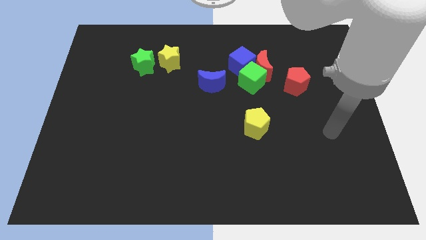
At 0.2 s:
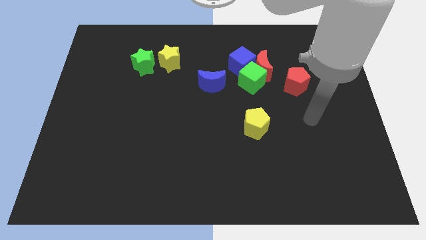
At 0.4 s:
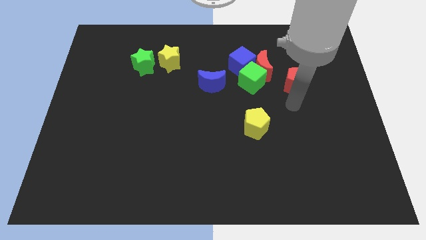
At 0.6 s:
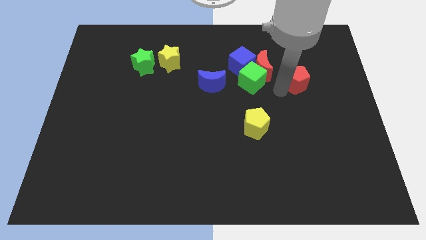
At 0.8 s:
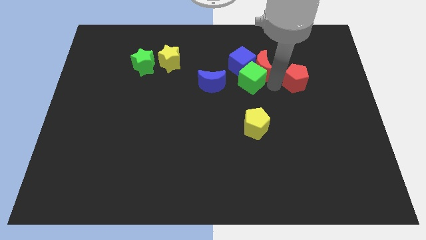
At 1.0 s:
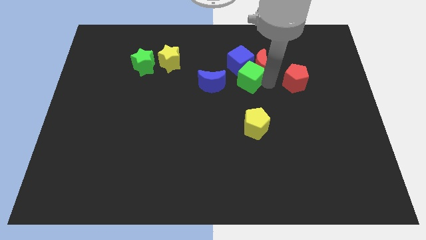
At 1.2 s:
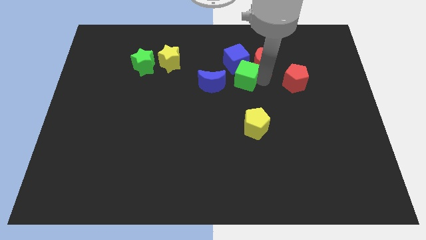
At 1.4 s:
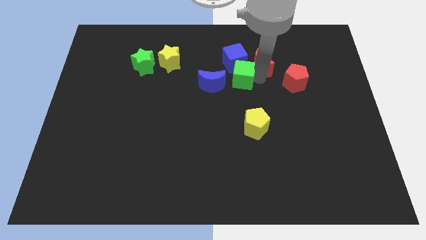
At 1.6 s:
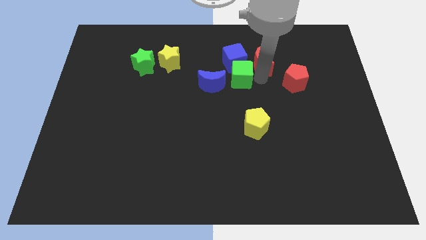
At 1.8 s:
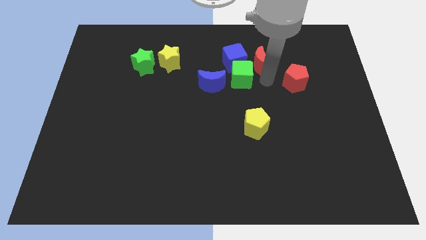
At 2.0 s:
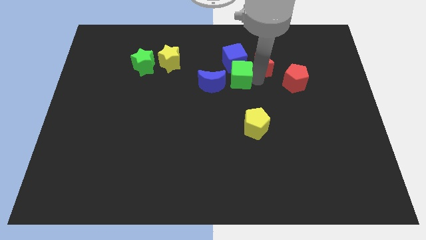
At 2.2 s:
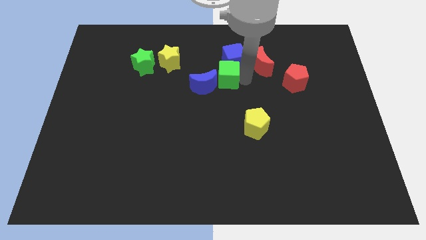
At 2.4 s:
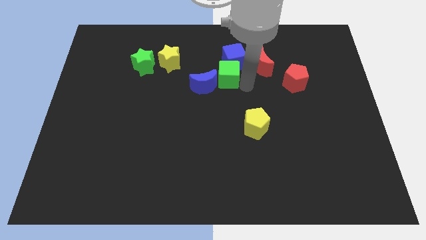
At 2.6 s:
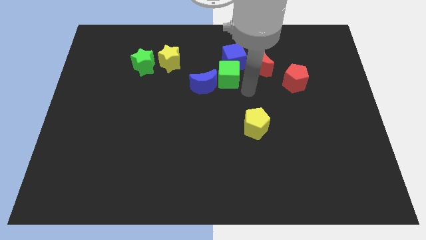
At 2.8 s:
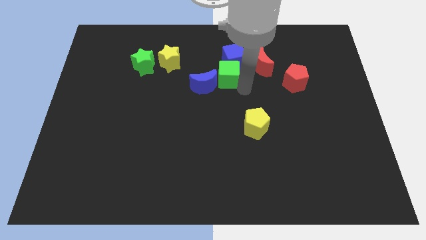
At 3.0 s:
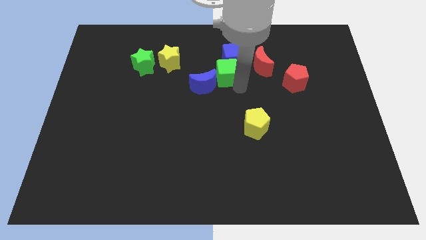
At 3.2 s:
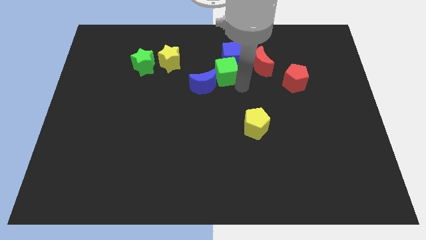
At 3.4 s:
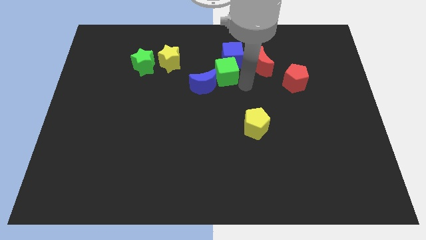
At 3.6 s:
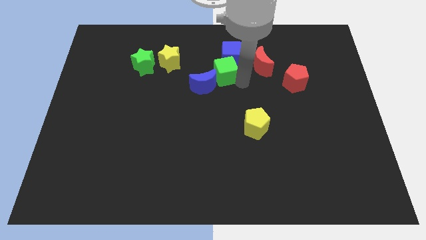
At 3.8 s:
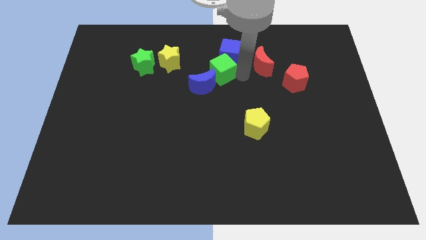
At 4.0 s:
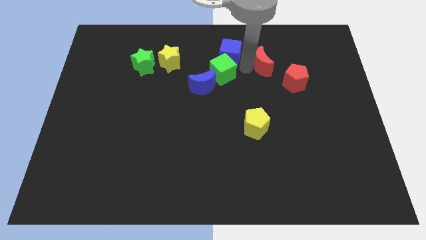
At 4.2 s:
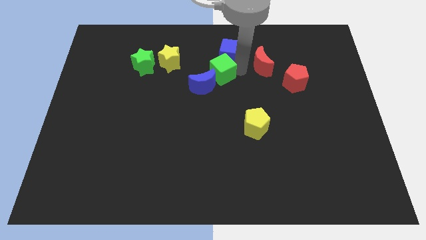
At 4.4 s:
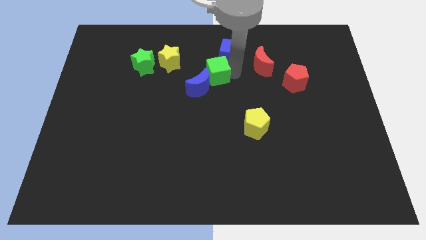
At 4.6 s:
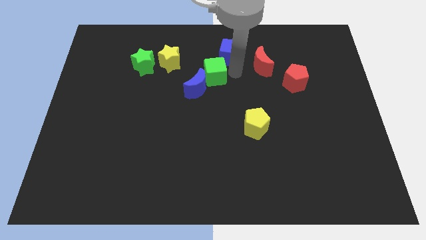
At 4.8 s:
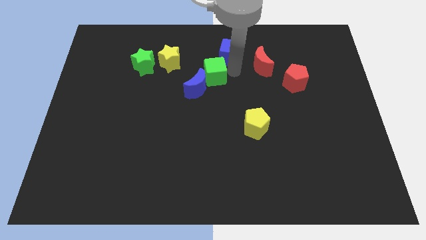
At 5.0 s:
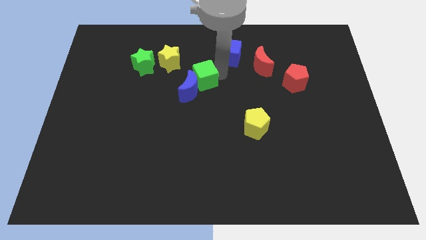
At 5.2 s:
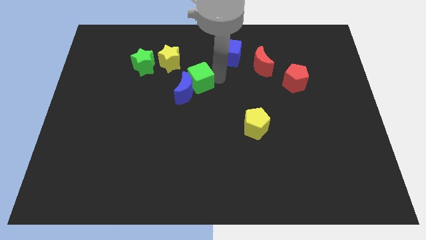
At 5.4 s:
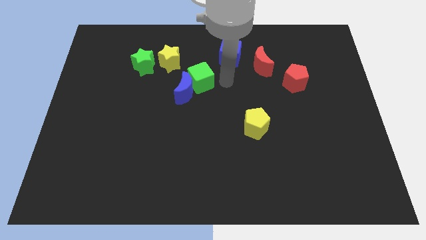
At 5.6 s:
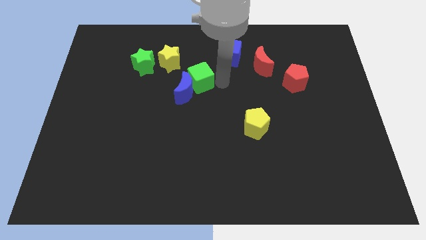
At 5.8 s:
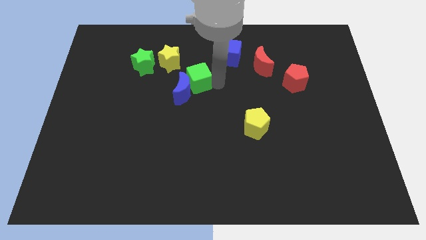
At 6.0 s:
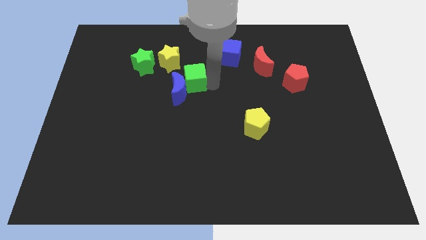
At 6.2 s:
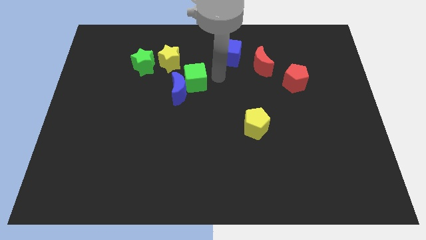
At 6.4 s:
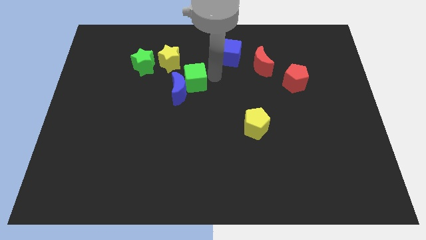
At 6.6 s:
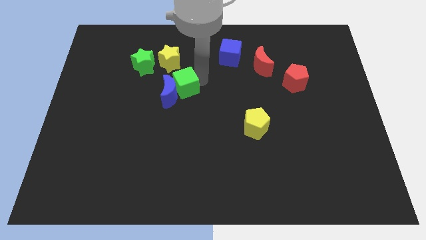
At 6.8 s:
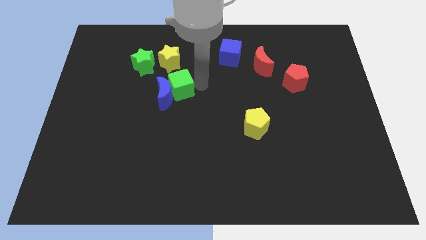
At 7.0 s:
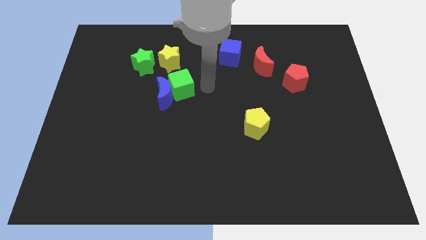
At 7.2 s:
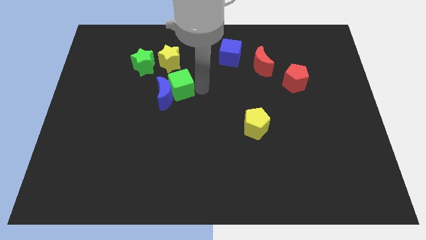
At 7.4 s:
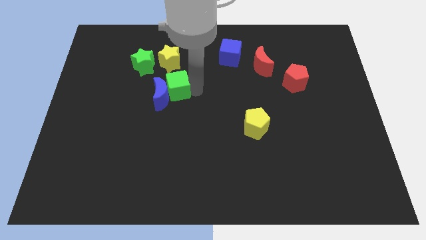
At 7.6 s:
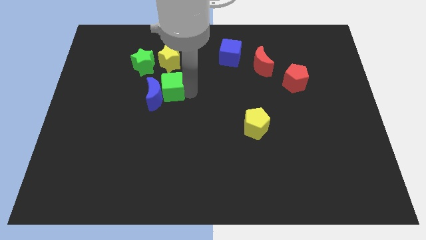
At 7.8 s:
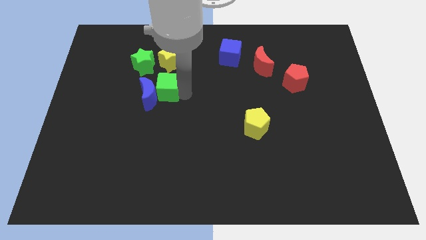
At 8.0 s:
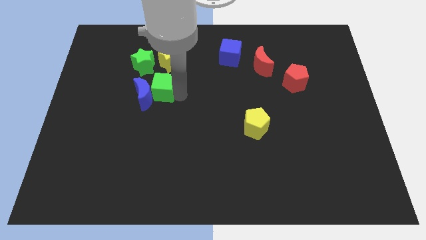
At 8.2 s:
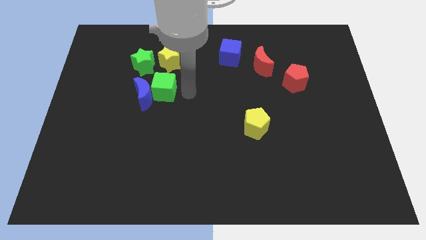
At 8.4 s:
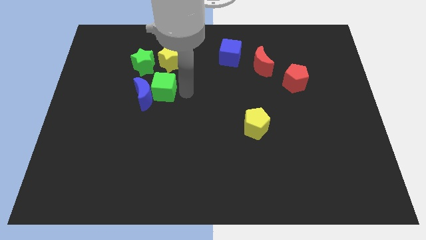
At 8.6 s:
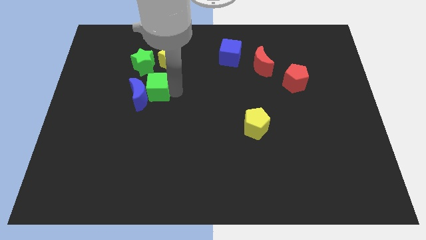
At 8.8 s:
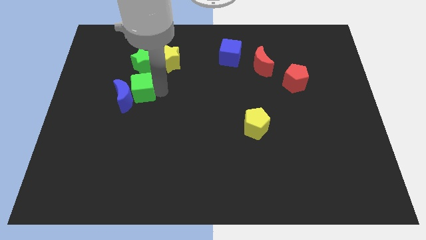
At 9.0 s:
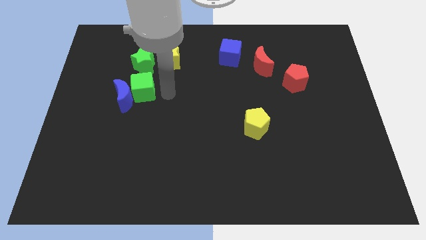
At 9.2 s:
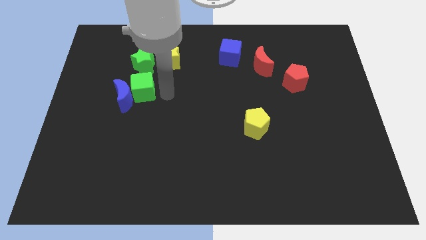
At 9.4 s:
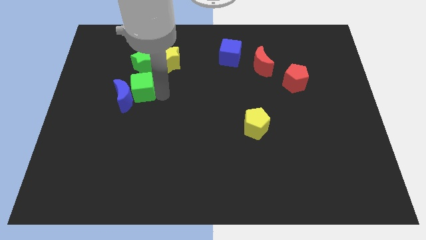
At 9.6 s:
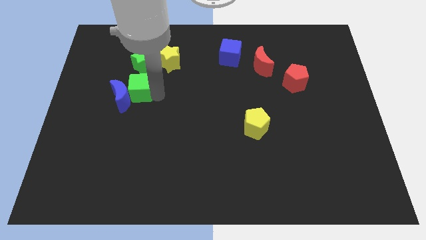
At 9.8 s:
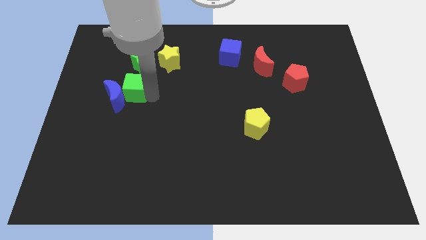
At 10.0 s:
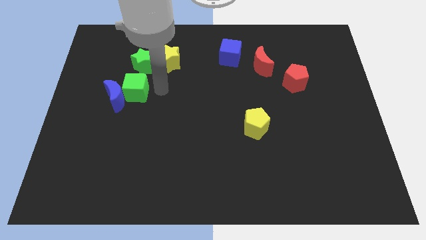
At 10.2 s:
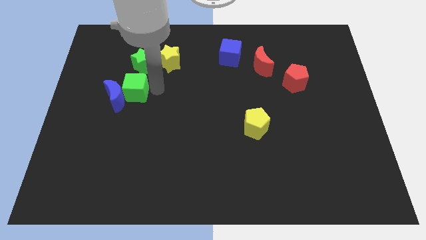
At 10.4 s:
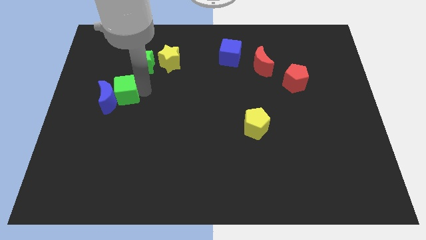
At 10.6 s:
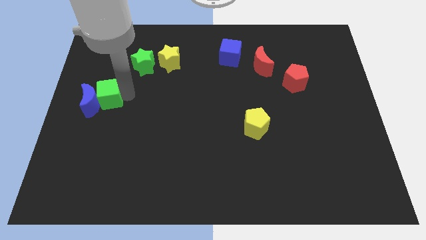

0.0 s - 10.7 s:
push the green cube to the left side
